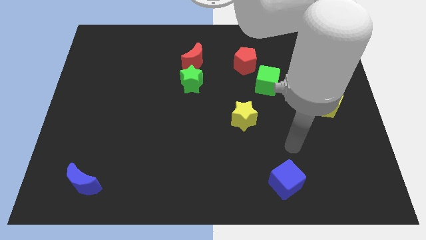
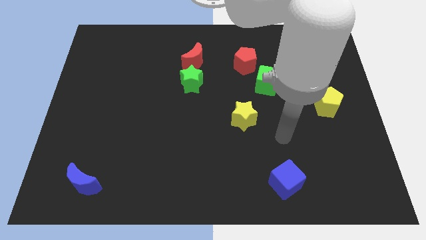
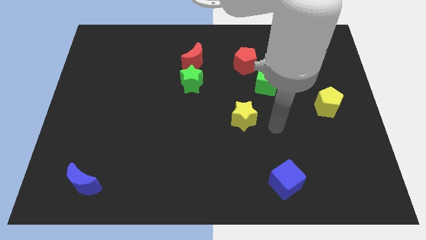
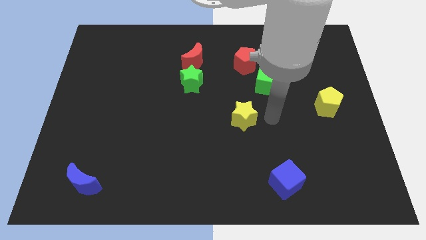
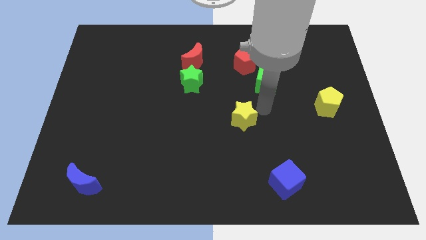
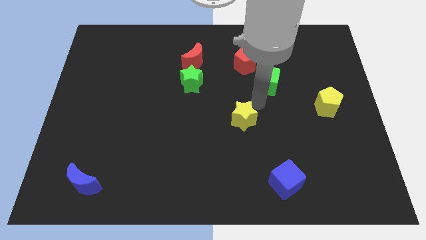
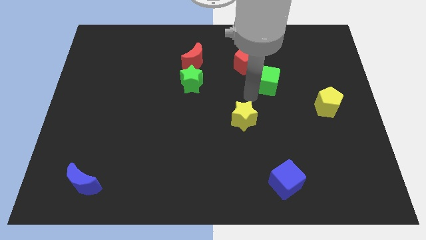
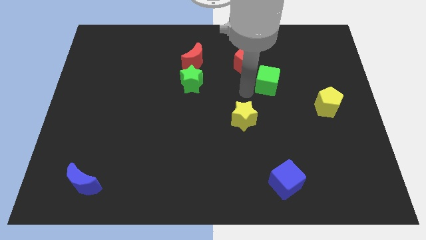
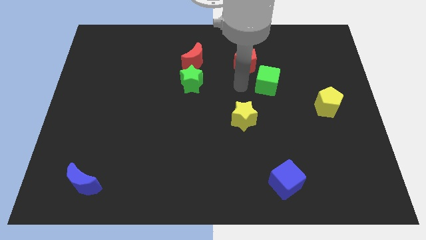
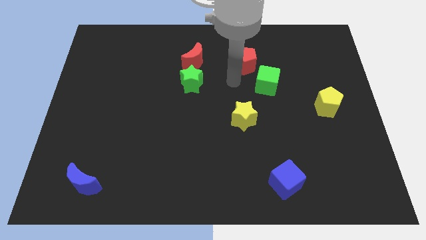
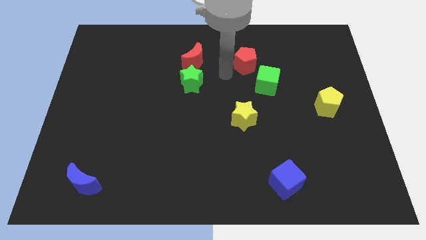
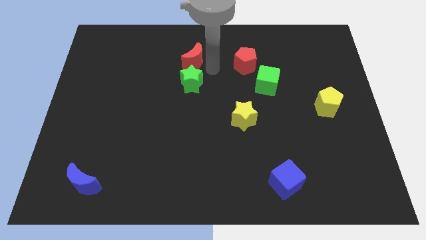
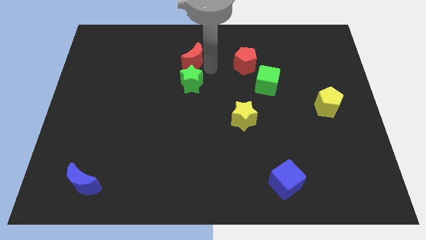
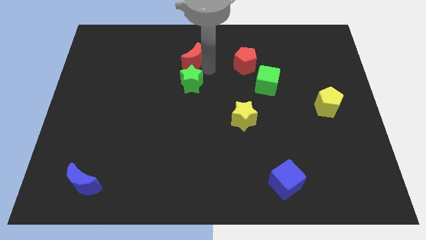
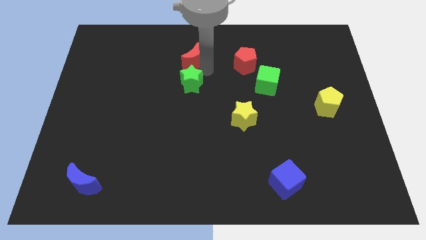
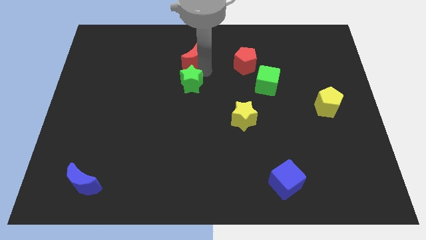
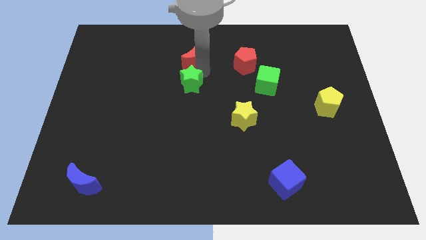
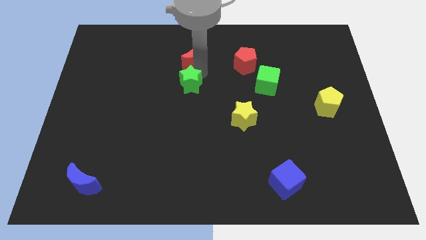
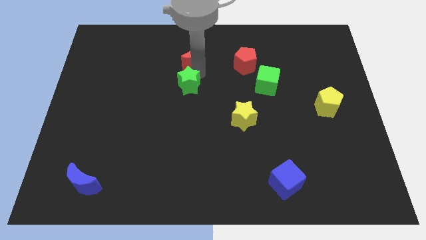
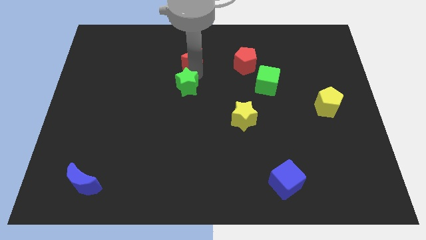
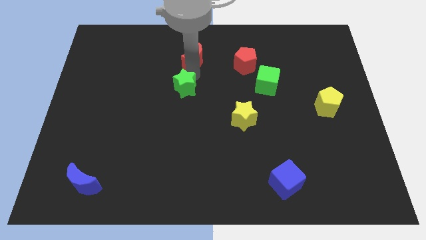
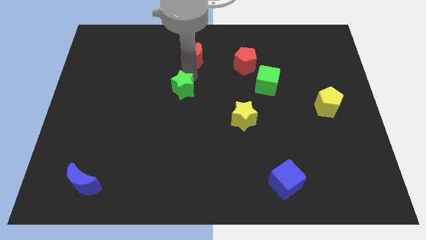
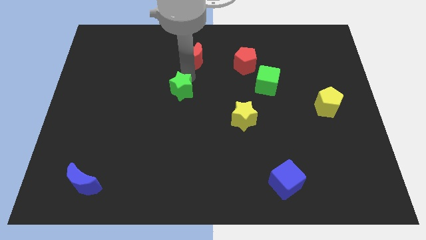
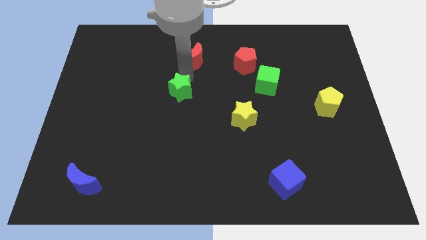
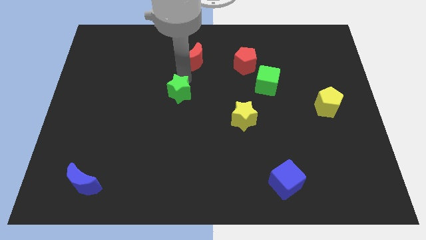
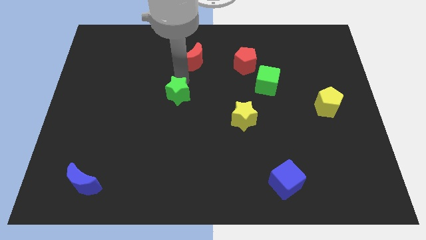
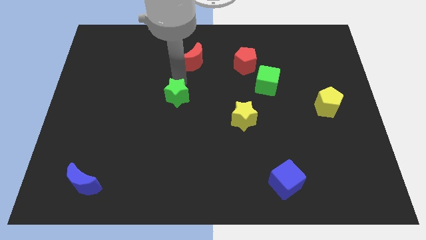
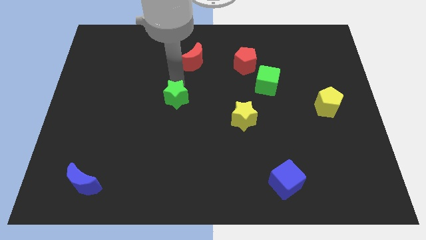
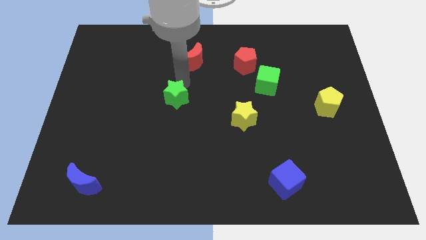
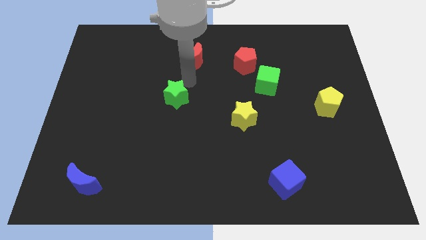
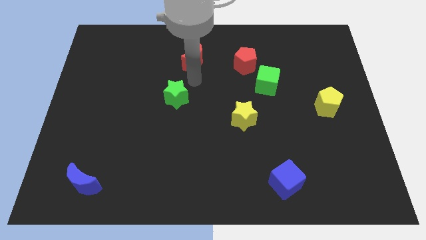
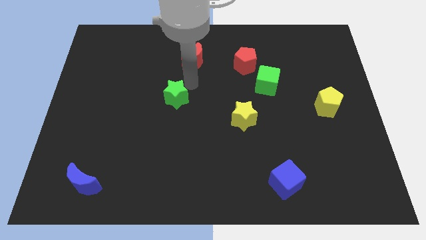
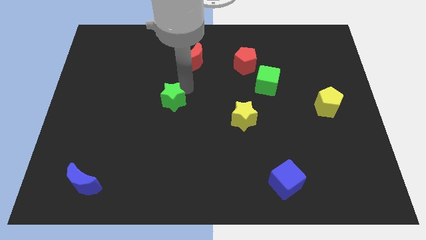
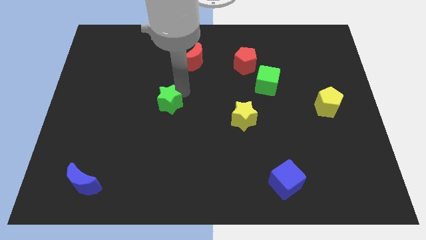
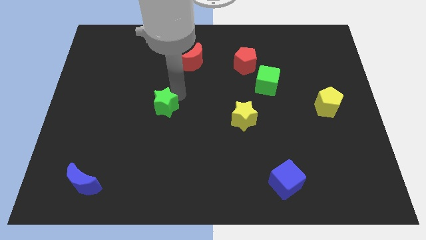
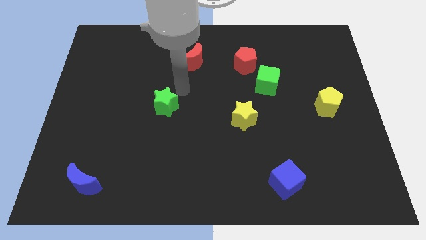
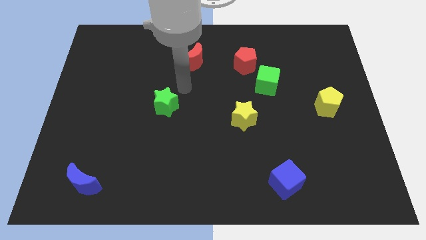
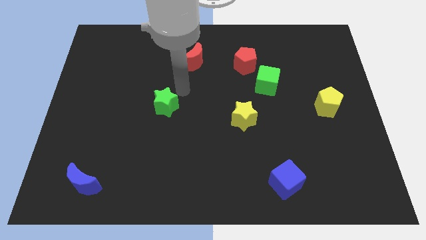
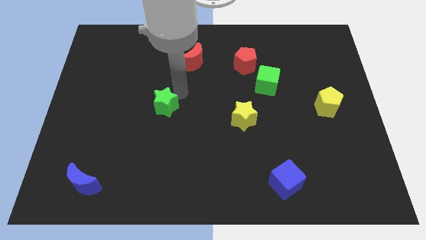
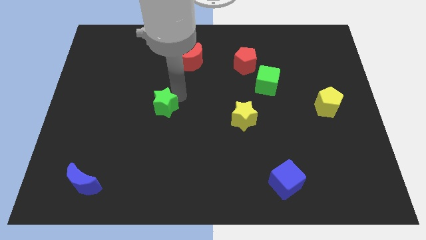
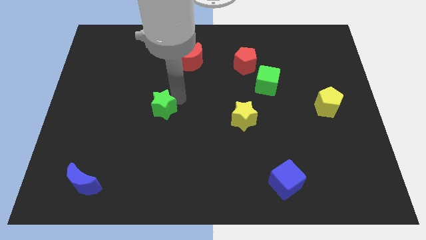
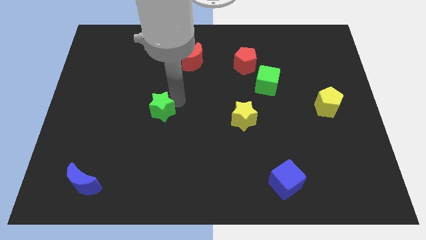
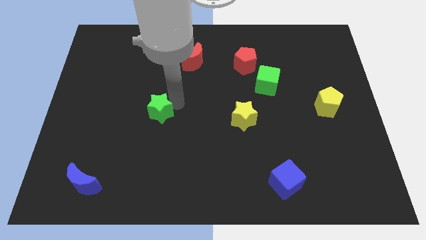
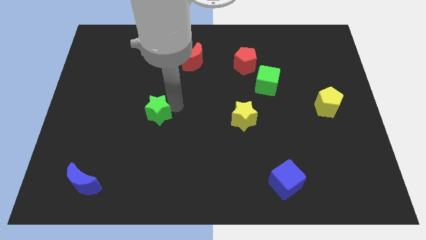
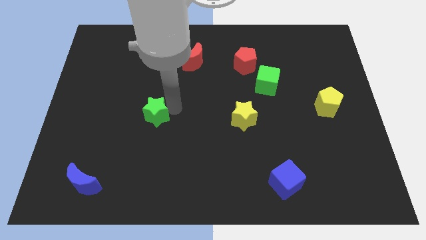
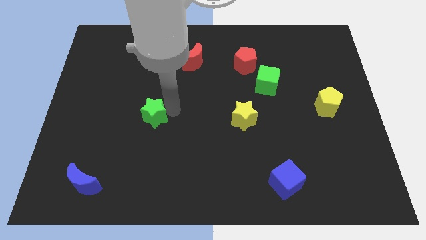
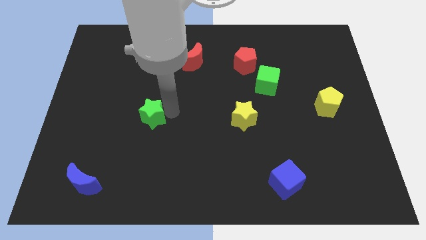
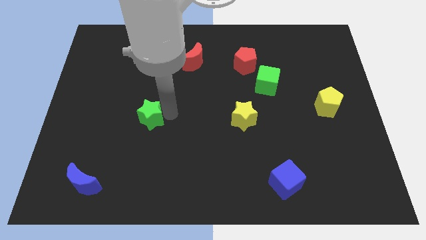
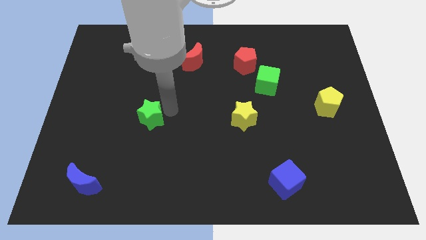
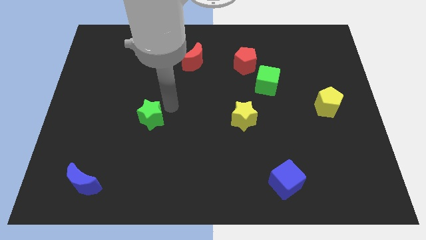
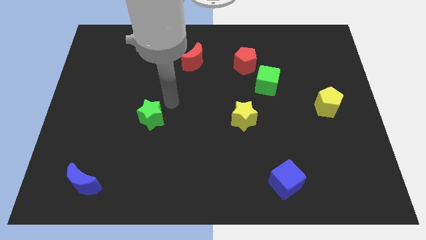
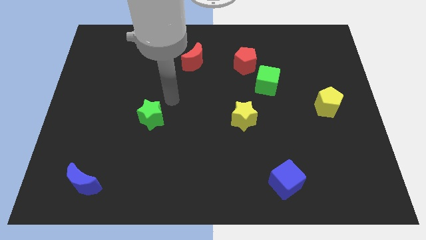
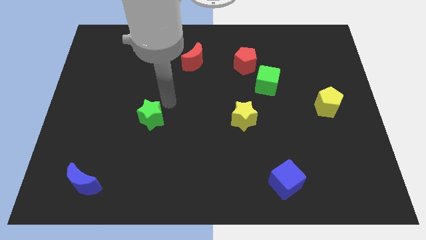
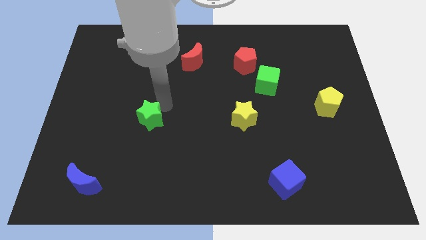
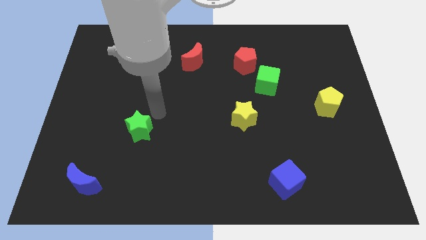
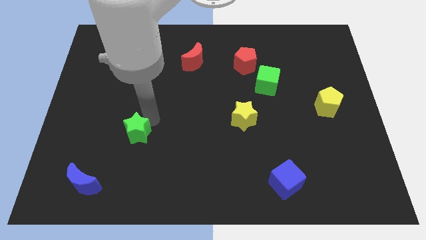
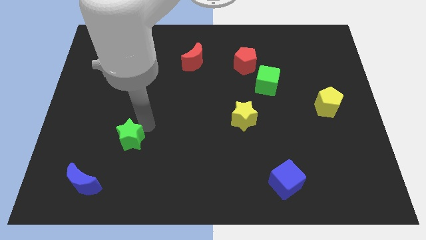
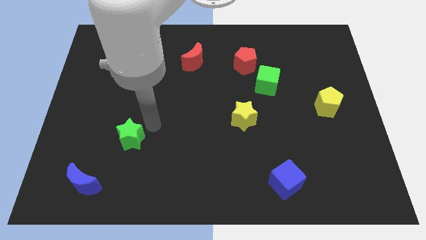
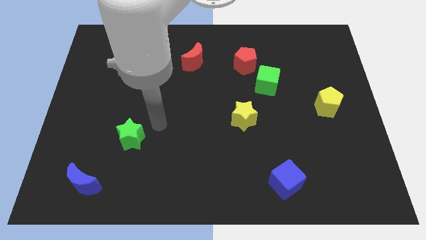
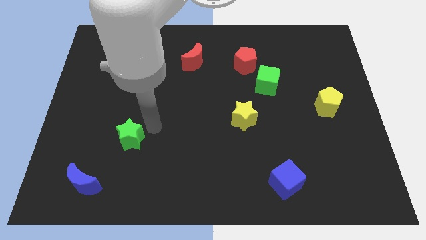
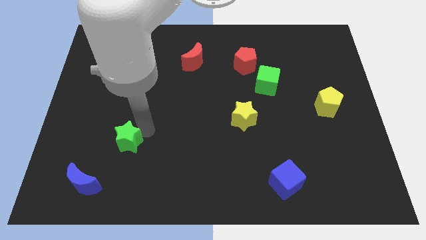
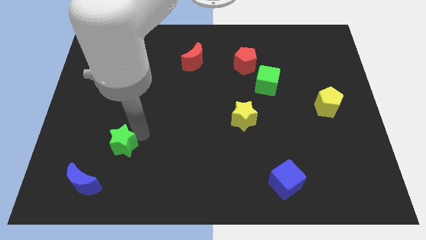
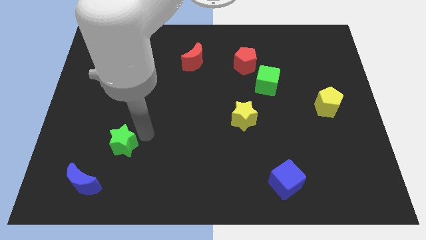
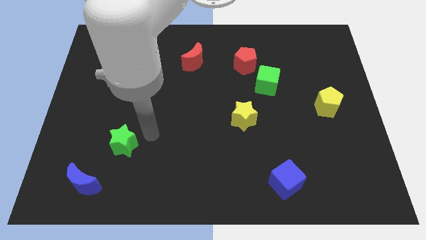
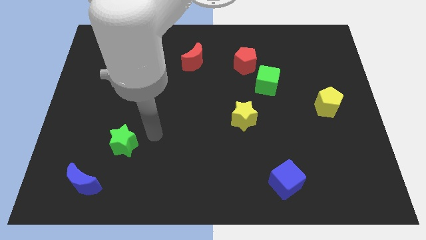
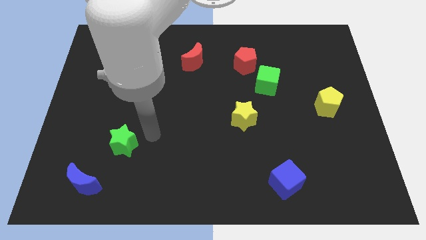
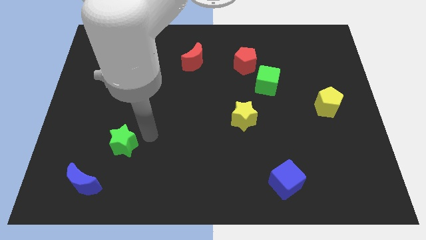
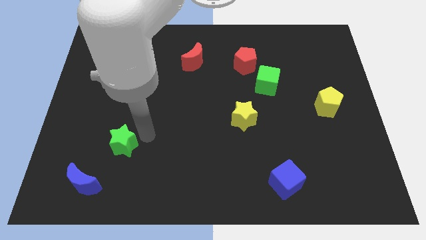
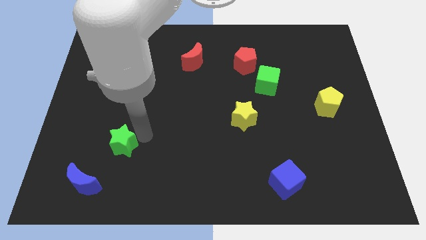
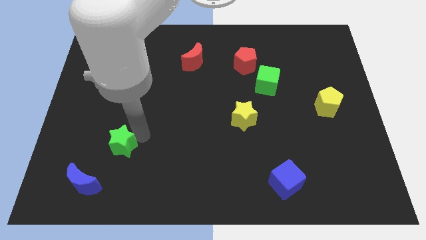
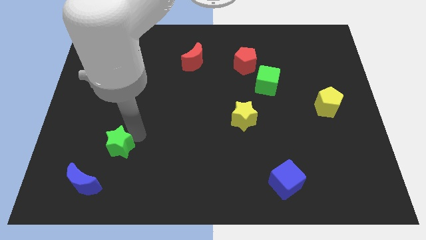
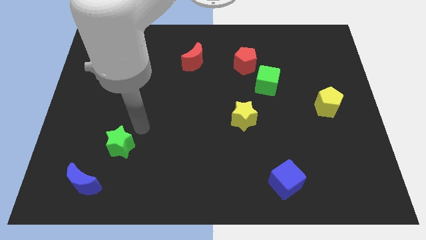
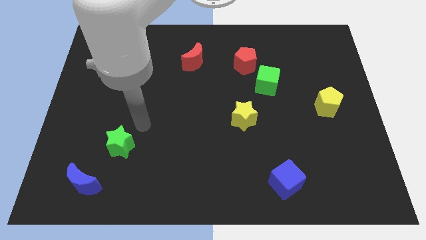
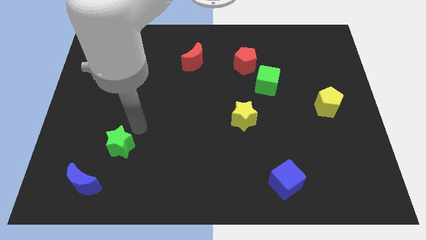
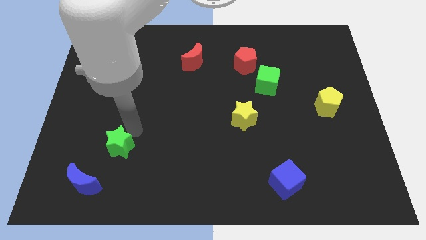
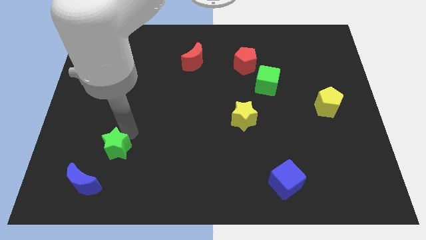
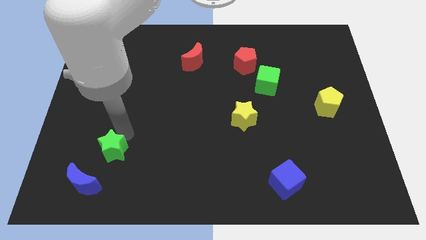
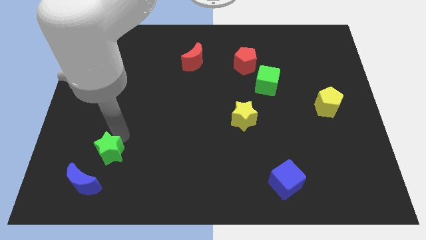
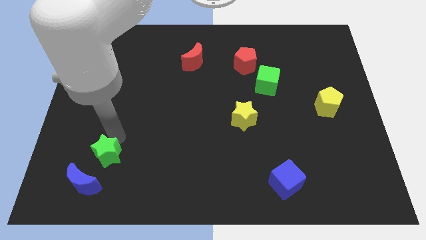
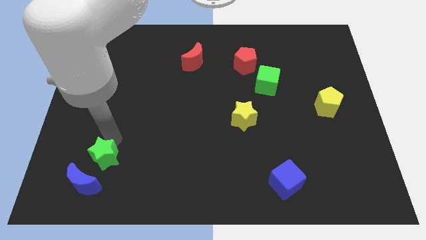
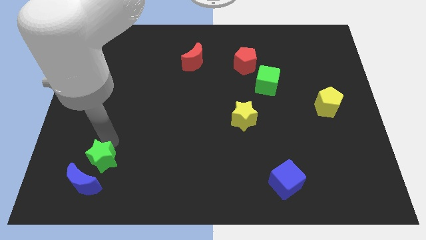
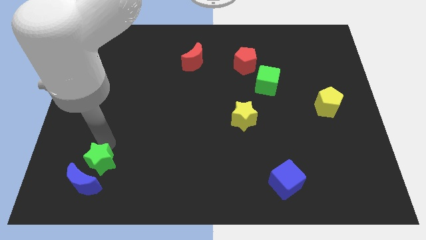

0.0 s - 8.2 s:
move the green star towards the blue moon
